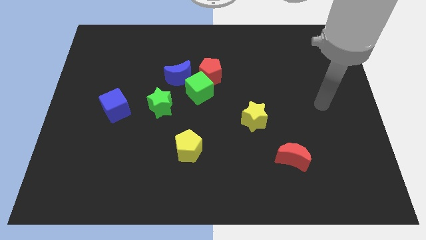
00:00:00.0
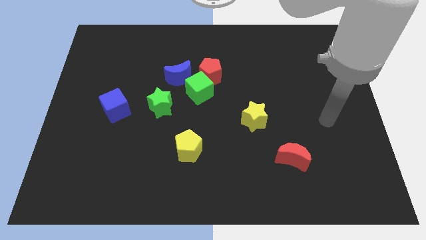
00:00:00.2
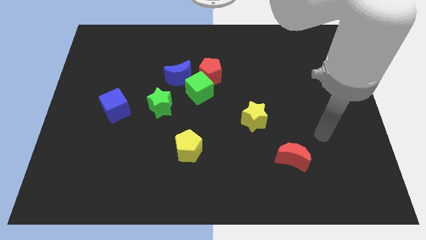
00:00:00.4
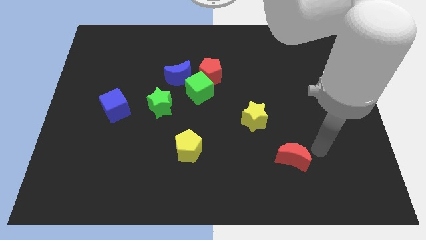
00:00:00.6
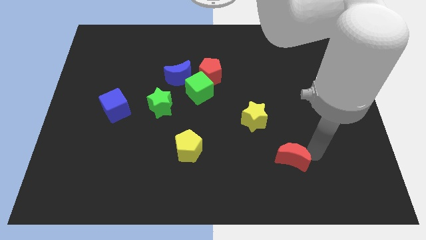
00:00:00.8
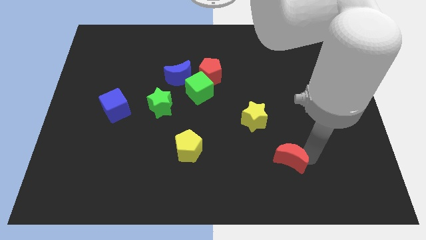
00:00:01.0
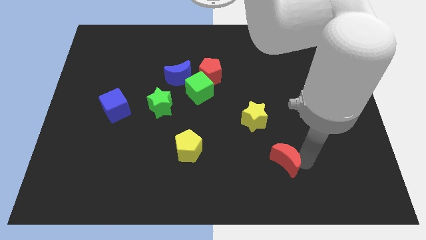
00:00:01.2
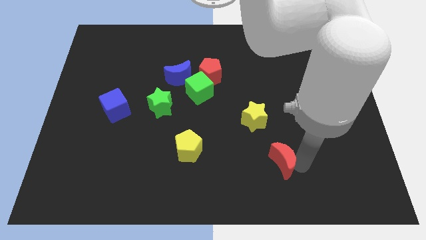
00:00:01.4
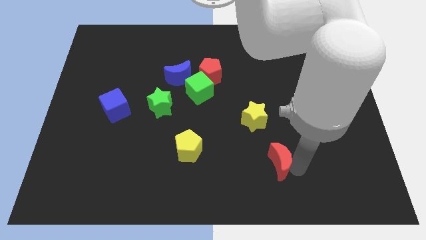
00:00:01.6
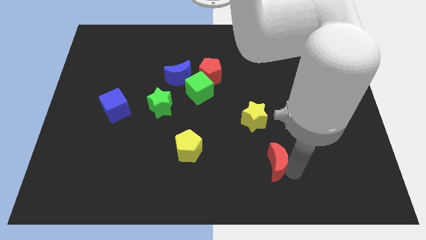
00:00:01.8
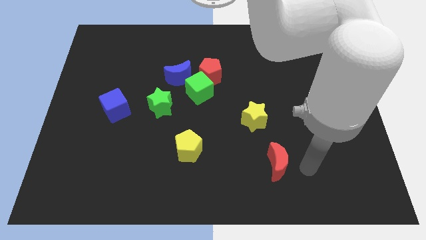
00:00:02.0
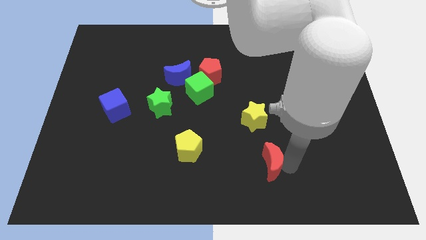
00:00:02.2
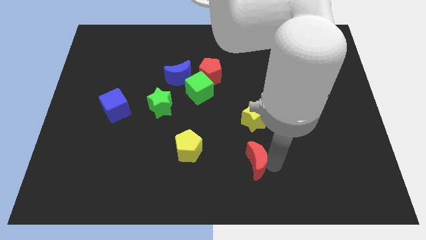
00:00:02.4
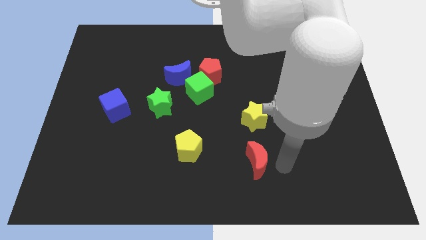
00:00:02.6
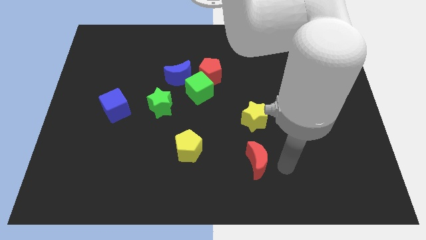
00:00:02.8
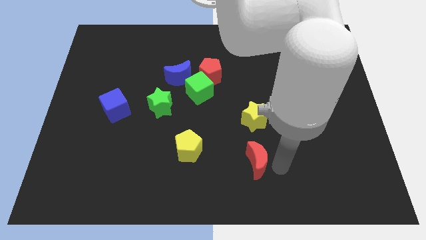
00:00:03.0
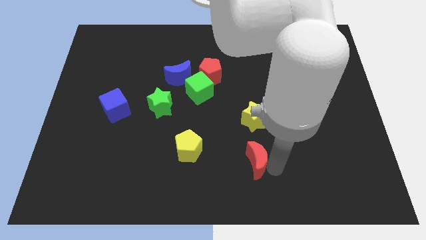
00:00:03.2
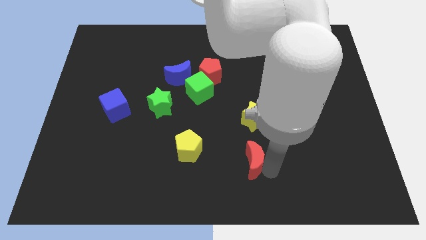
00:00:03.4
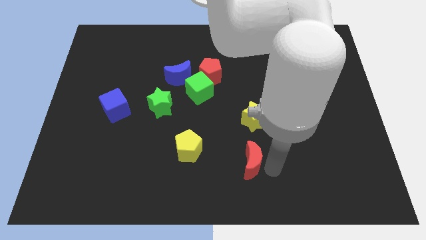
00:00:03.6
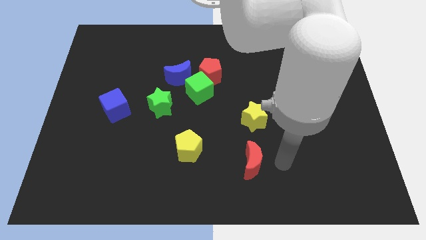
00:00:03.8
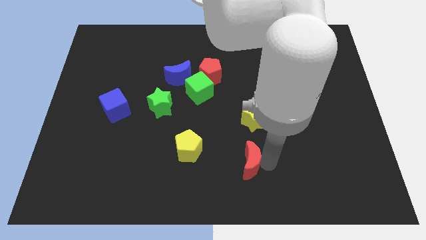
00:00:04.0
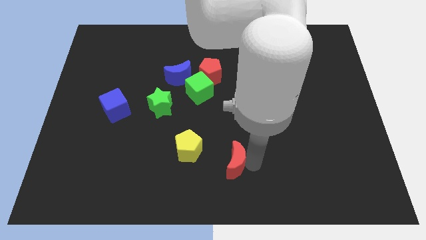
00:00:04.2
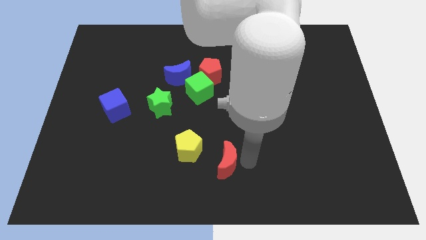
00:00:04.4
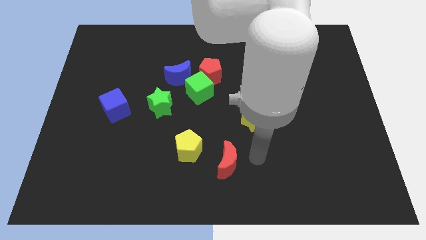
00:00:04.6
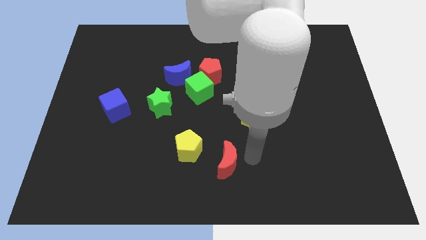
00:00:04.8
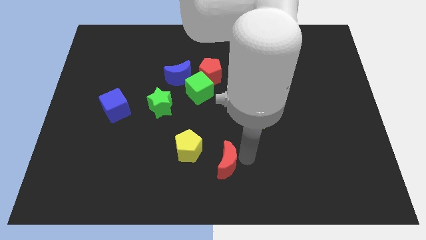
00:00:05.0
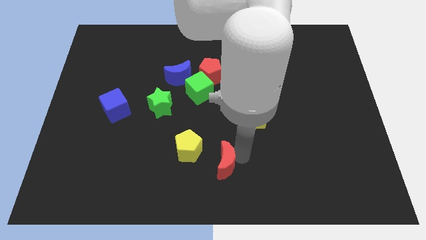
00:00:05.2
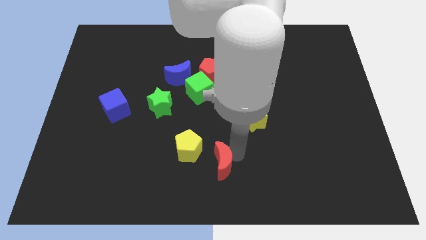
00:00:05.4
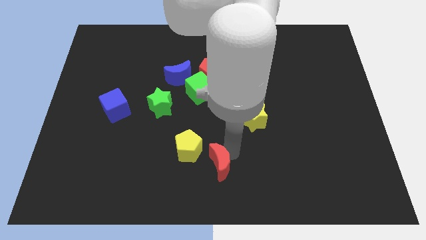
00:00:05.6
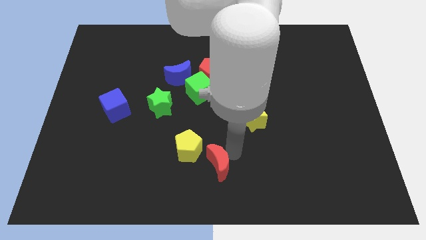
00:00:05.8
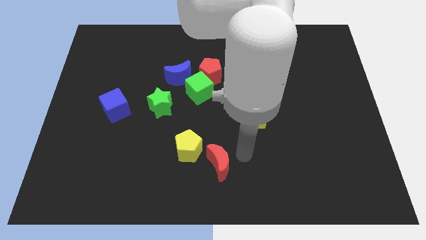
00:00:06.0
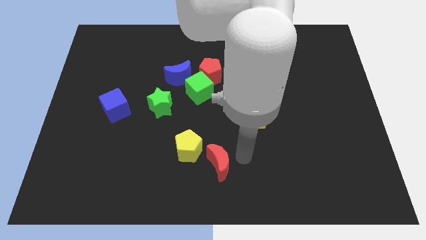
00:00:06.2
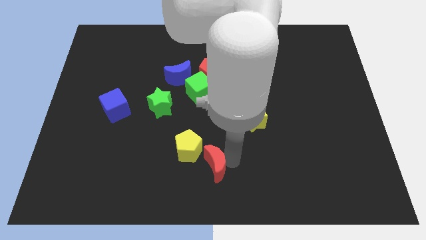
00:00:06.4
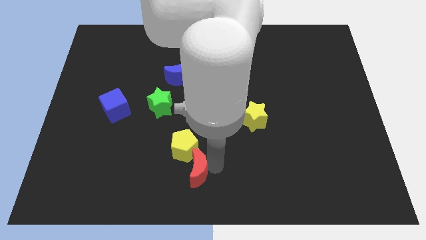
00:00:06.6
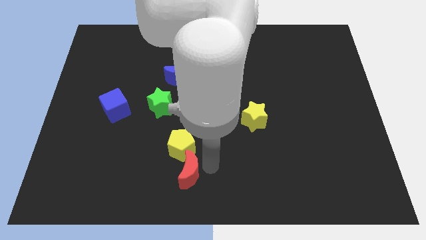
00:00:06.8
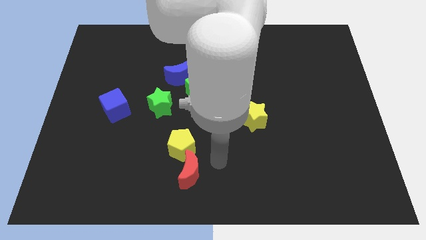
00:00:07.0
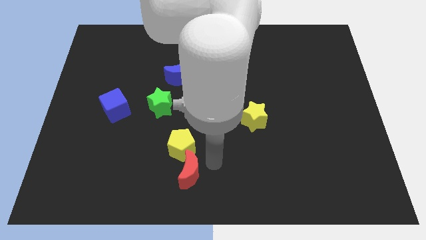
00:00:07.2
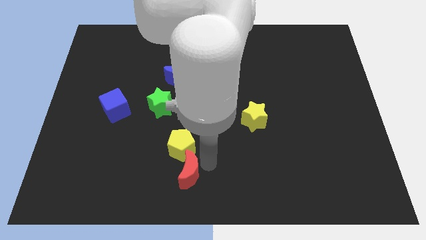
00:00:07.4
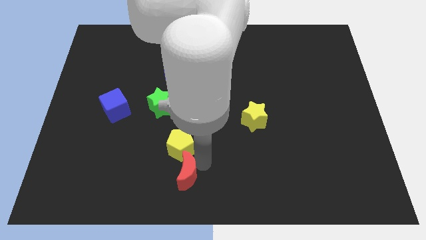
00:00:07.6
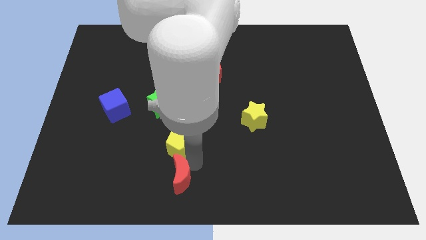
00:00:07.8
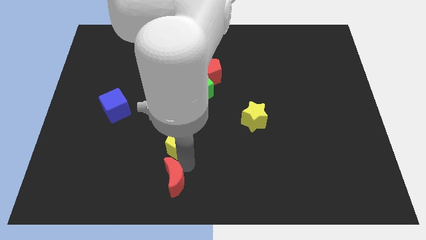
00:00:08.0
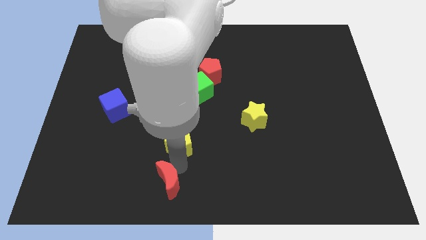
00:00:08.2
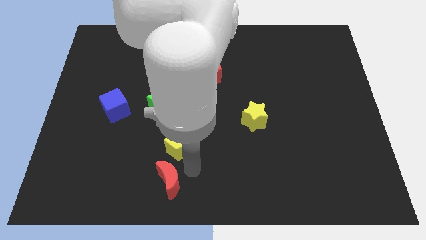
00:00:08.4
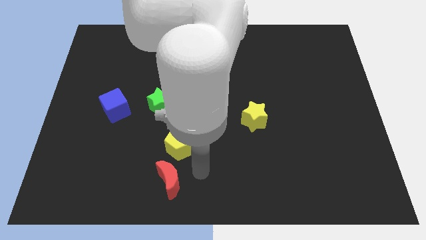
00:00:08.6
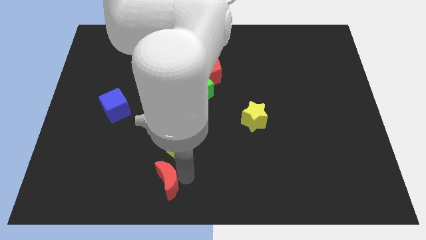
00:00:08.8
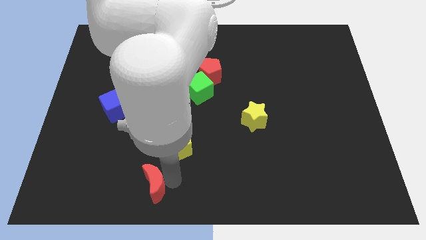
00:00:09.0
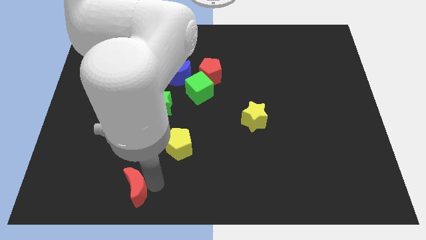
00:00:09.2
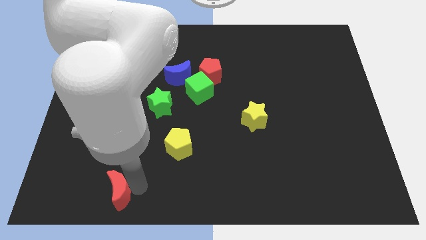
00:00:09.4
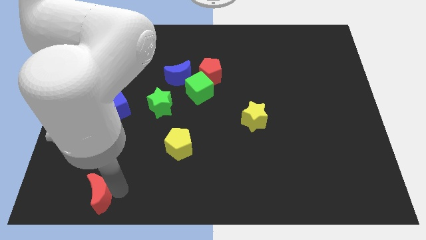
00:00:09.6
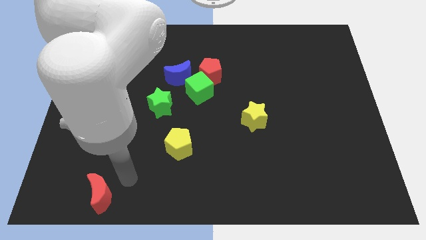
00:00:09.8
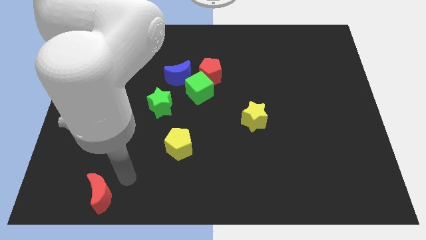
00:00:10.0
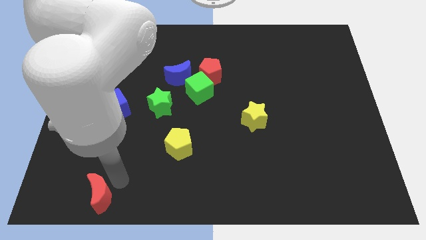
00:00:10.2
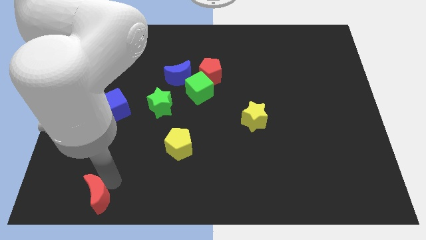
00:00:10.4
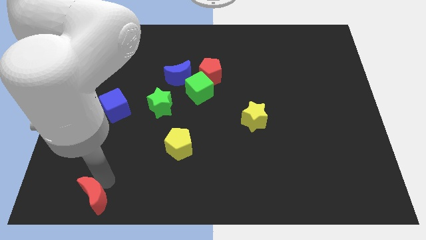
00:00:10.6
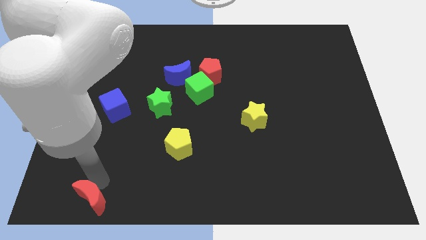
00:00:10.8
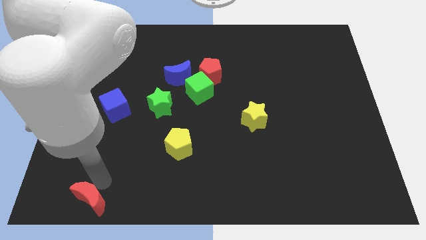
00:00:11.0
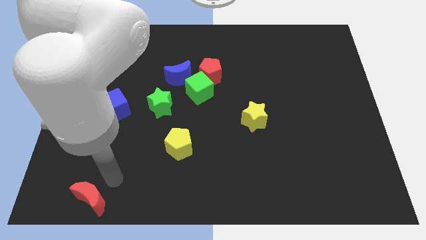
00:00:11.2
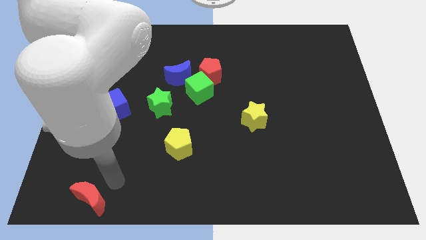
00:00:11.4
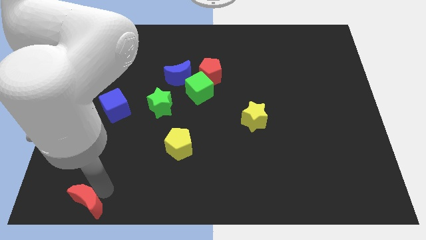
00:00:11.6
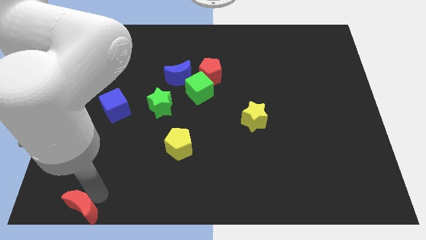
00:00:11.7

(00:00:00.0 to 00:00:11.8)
slide the red moon to the bottom left of the board
